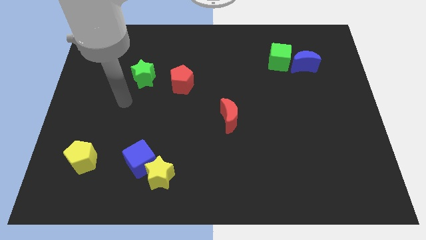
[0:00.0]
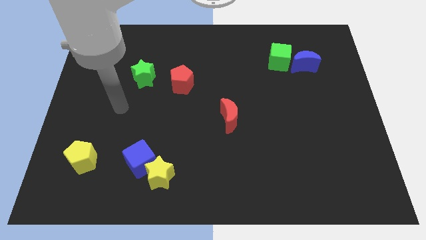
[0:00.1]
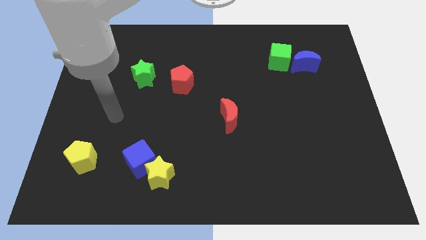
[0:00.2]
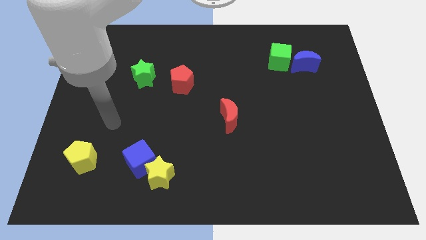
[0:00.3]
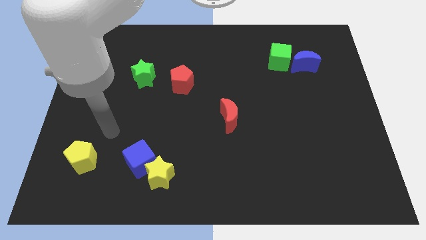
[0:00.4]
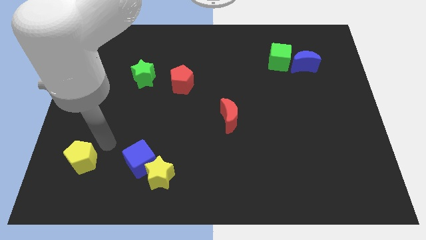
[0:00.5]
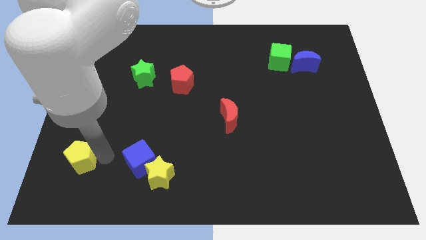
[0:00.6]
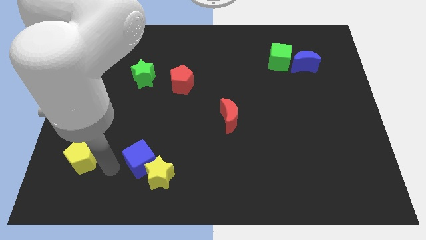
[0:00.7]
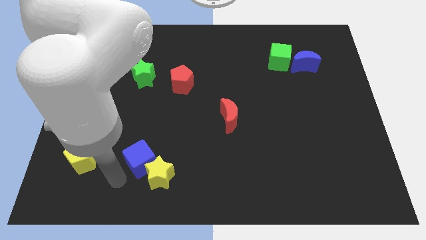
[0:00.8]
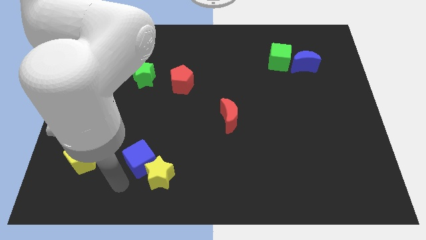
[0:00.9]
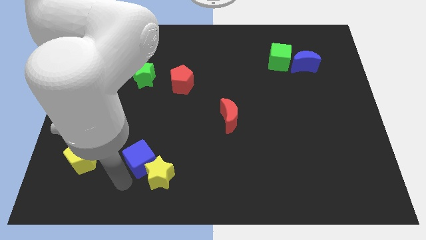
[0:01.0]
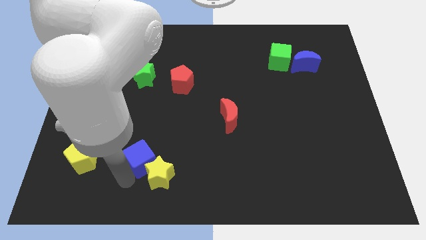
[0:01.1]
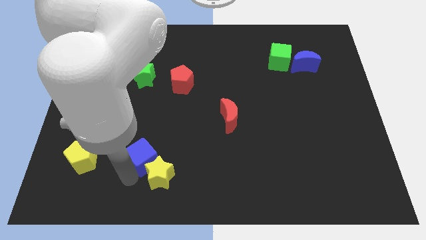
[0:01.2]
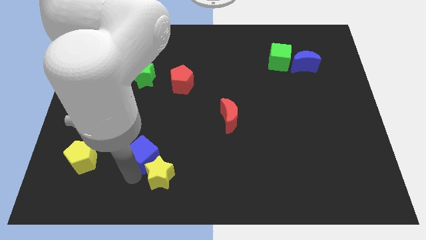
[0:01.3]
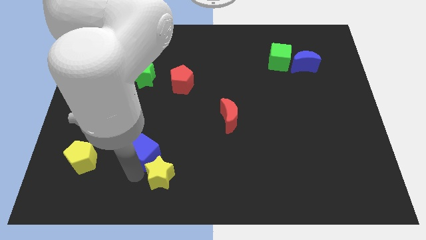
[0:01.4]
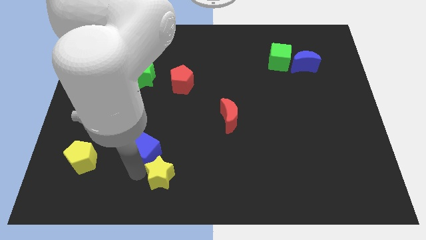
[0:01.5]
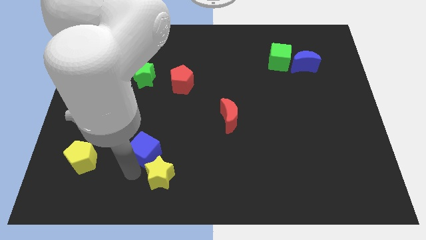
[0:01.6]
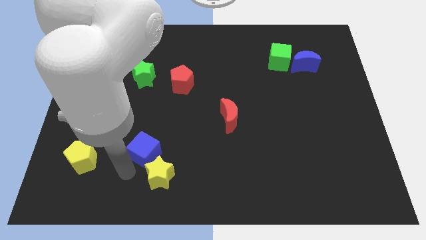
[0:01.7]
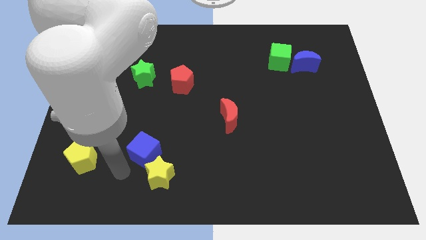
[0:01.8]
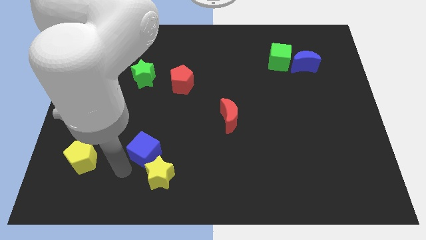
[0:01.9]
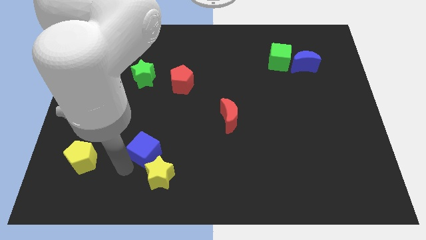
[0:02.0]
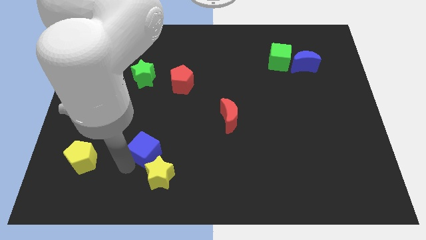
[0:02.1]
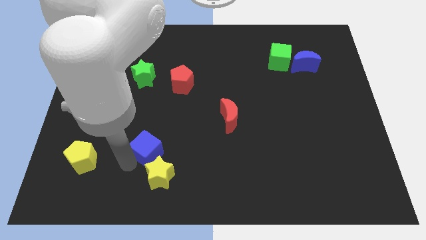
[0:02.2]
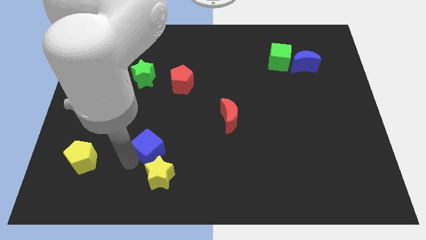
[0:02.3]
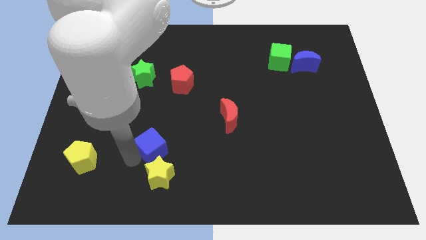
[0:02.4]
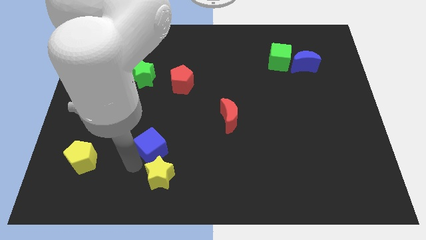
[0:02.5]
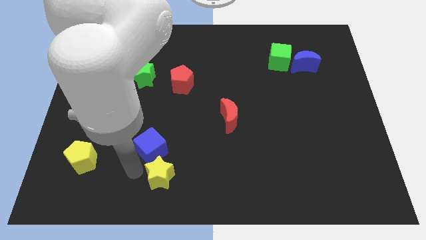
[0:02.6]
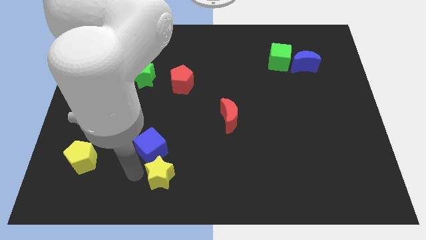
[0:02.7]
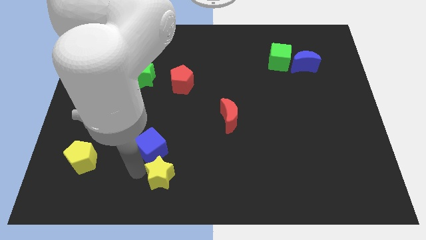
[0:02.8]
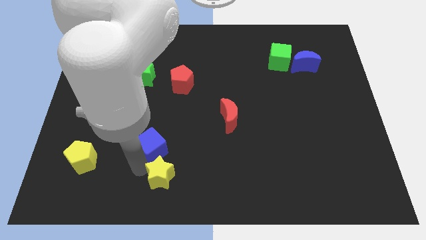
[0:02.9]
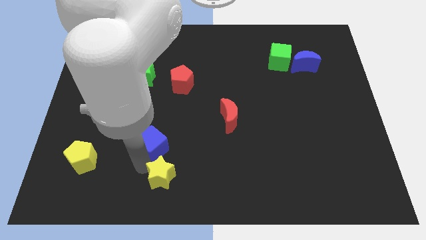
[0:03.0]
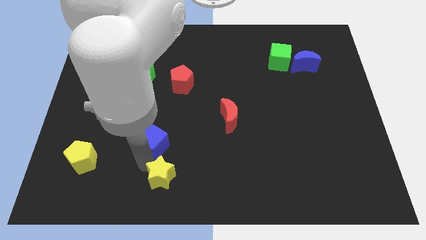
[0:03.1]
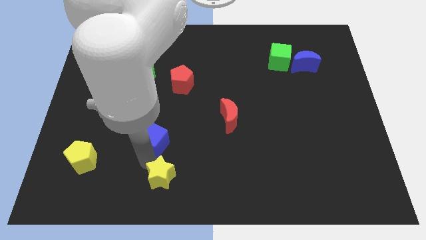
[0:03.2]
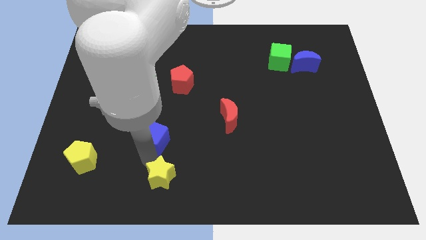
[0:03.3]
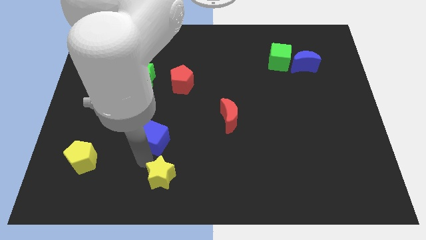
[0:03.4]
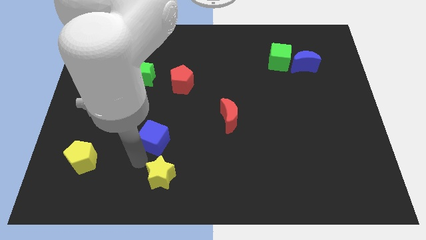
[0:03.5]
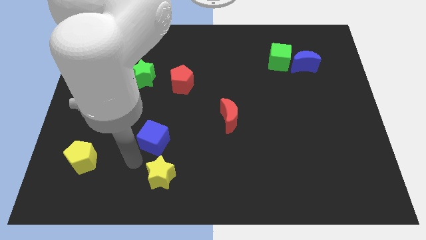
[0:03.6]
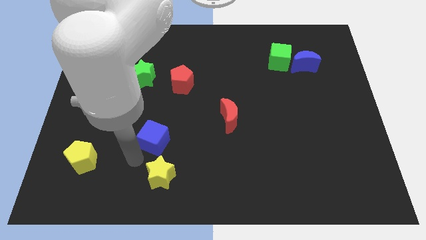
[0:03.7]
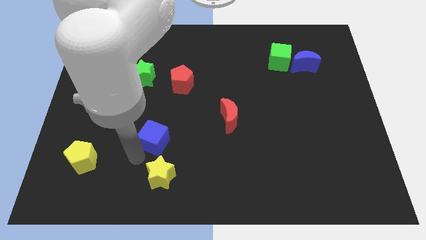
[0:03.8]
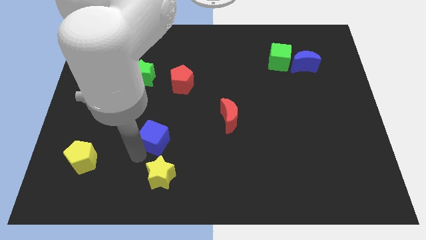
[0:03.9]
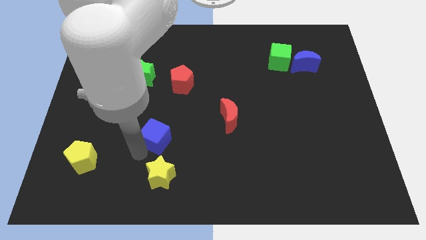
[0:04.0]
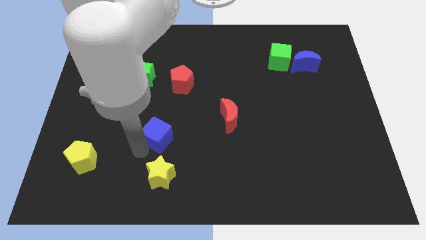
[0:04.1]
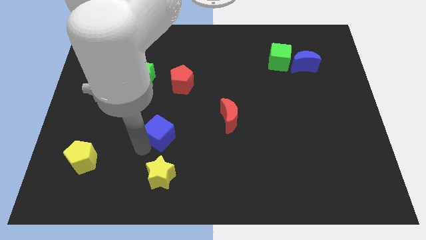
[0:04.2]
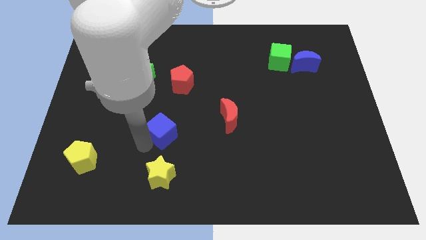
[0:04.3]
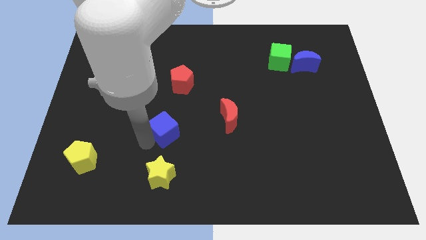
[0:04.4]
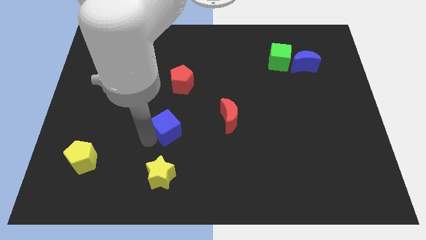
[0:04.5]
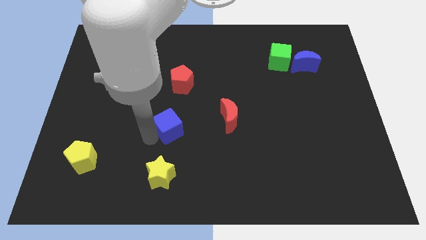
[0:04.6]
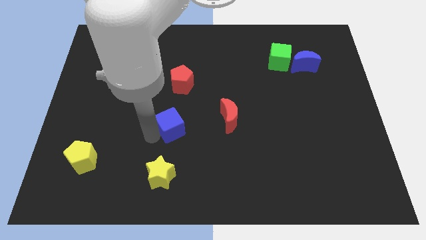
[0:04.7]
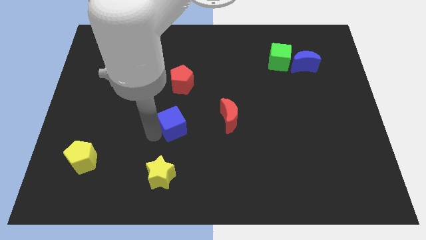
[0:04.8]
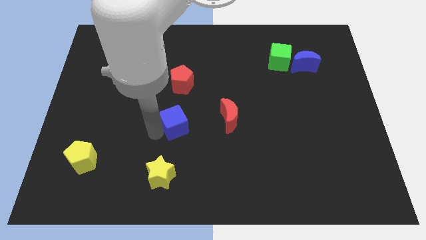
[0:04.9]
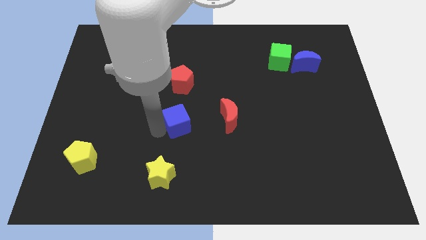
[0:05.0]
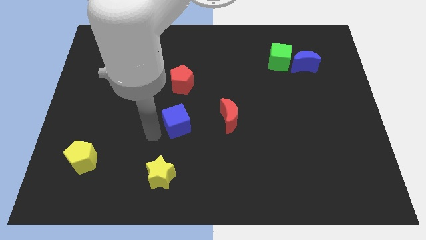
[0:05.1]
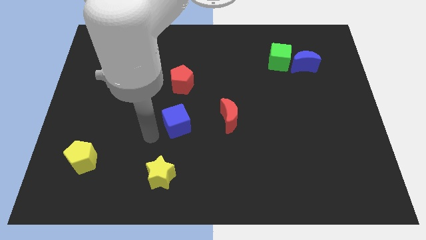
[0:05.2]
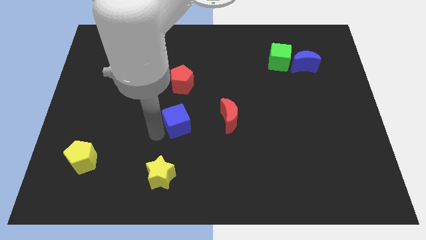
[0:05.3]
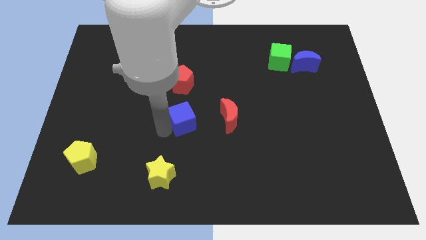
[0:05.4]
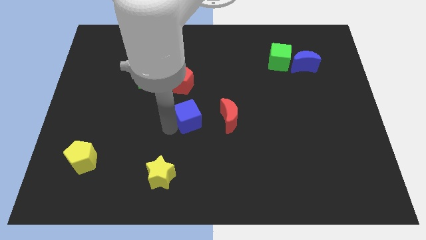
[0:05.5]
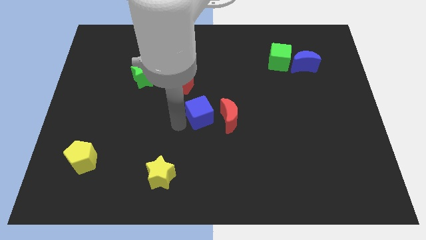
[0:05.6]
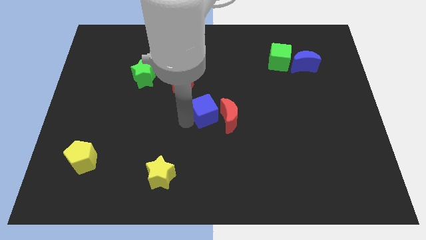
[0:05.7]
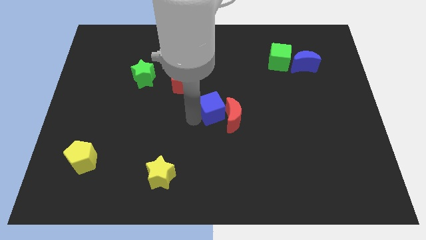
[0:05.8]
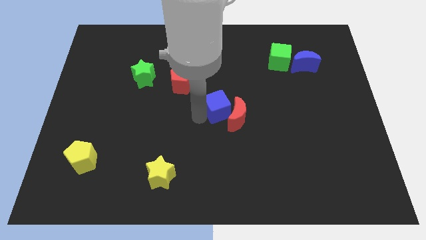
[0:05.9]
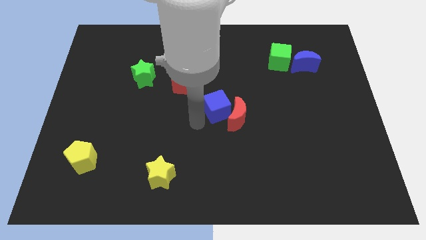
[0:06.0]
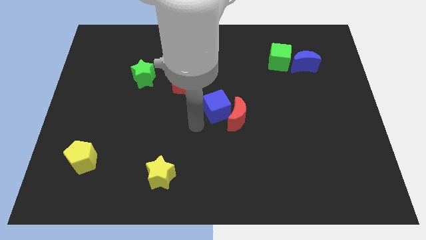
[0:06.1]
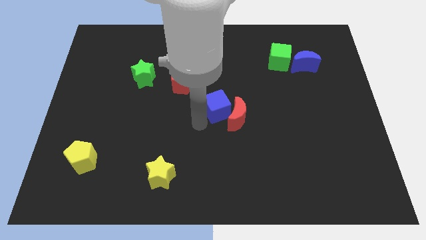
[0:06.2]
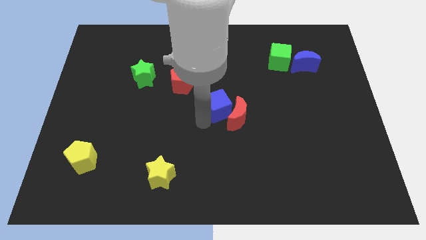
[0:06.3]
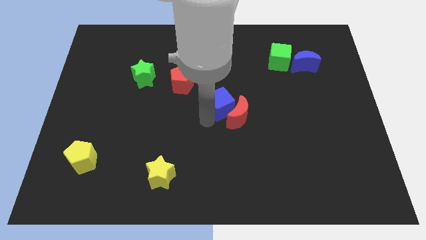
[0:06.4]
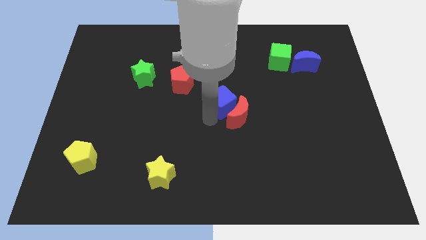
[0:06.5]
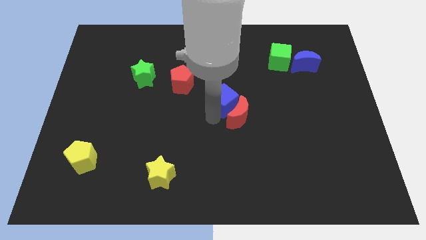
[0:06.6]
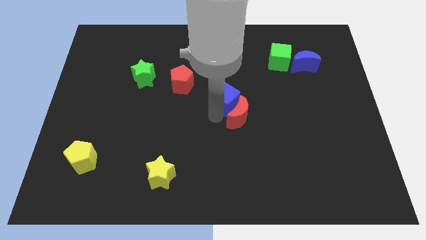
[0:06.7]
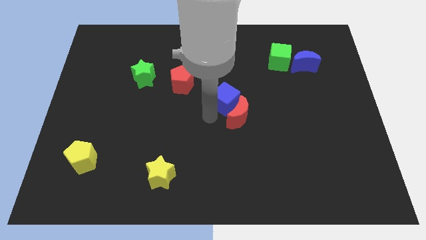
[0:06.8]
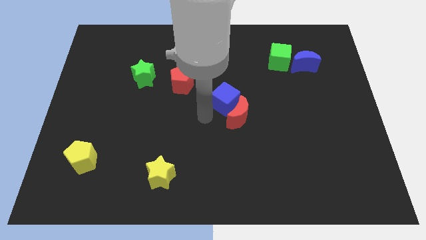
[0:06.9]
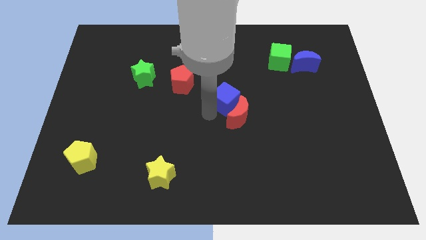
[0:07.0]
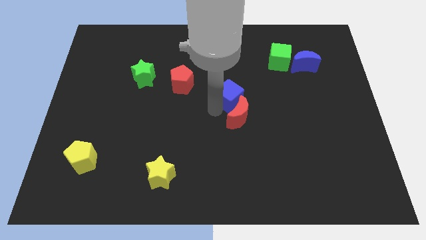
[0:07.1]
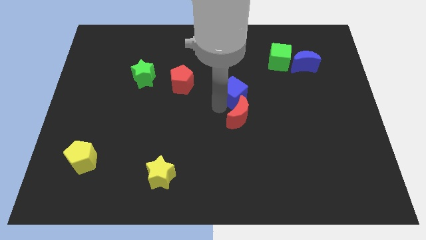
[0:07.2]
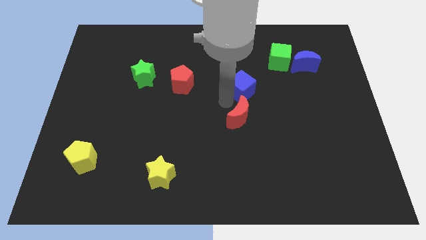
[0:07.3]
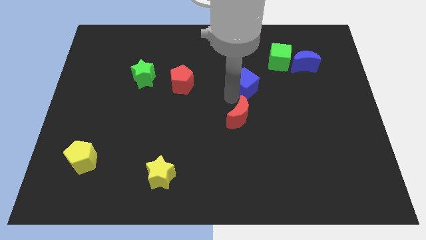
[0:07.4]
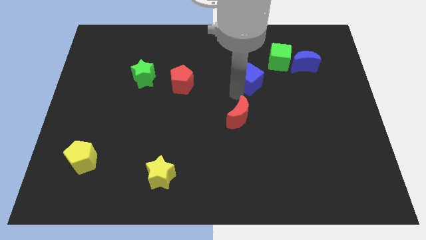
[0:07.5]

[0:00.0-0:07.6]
push the blue cube diagonally down and to the left of the green cube
